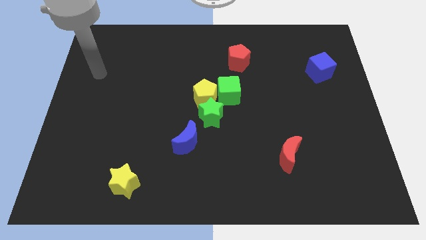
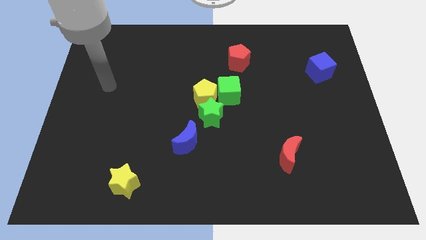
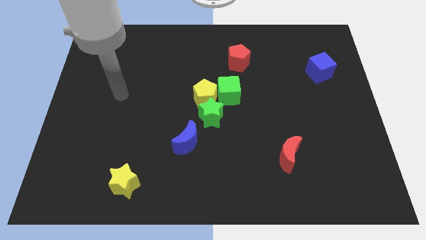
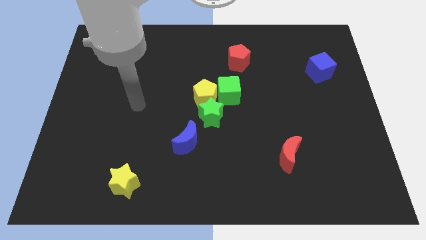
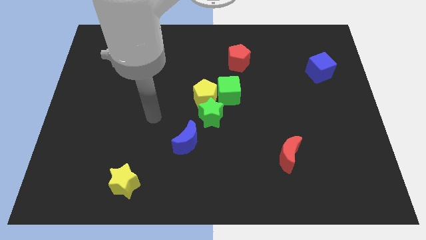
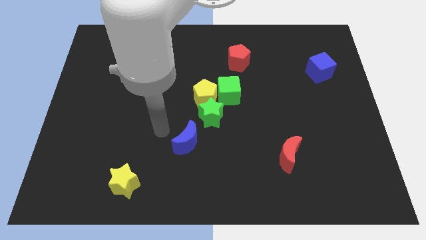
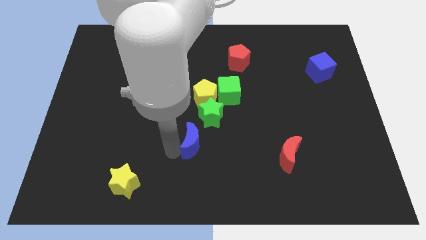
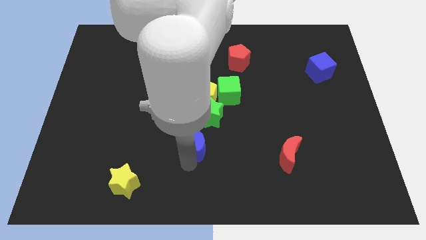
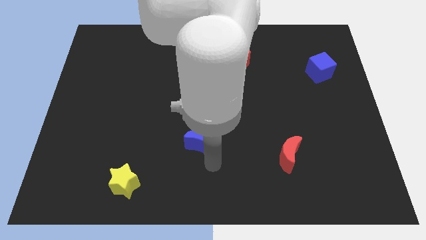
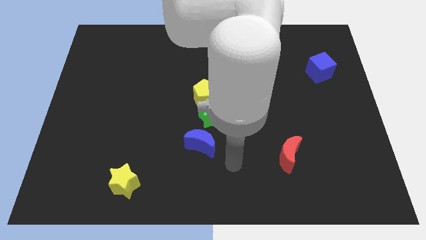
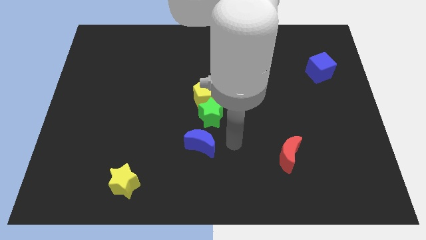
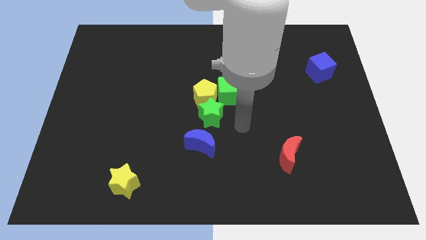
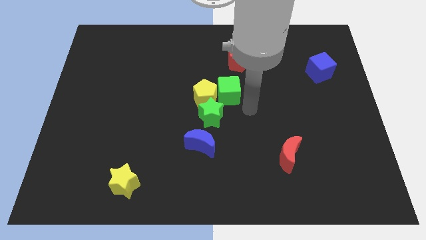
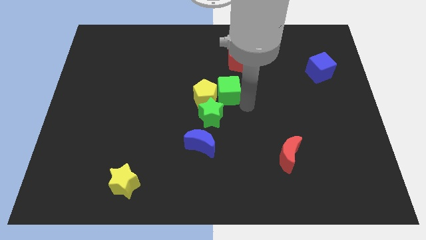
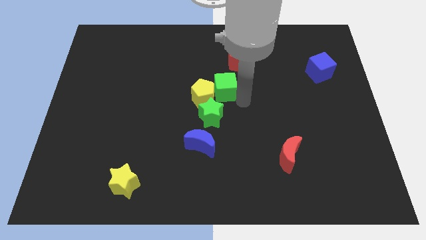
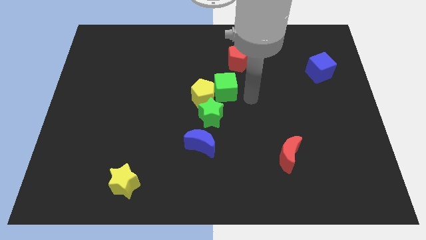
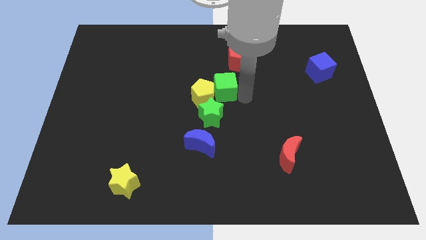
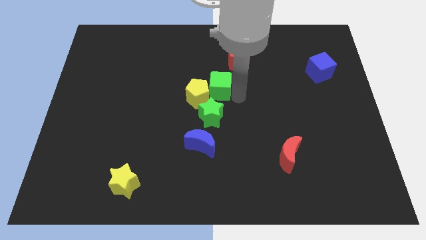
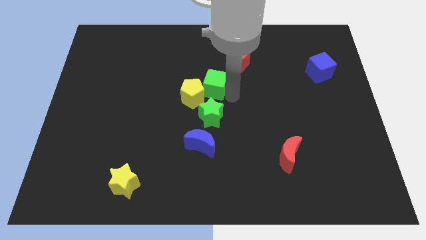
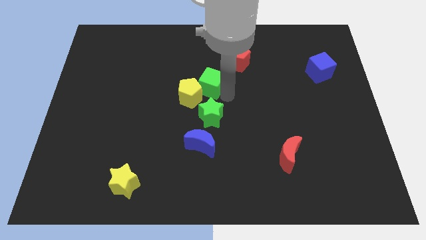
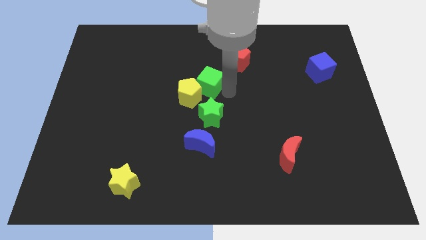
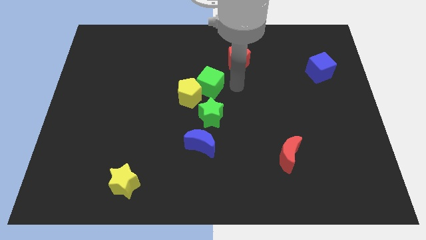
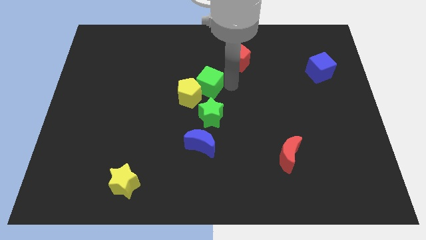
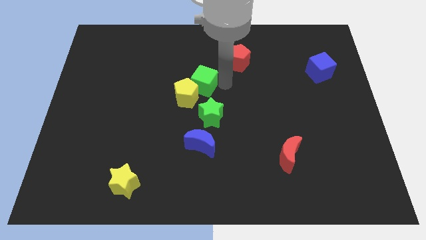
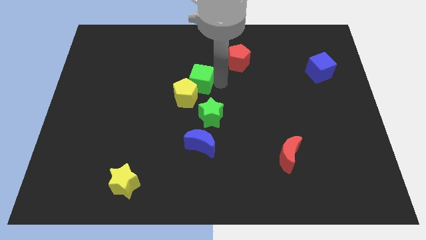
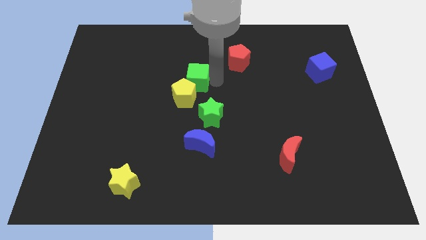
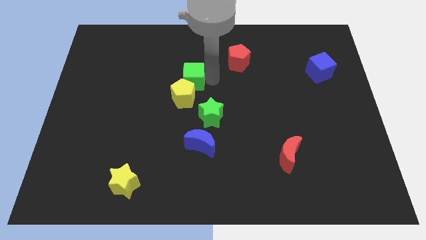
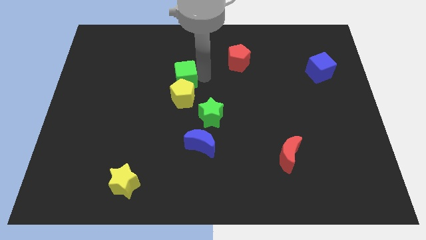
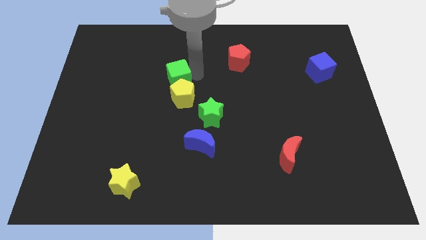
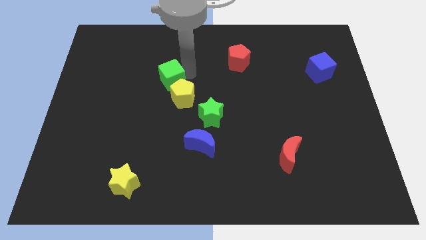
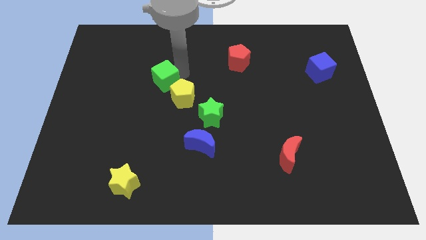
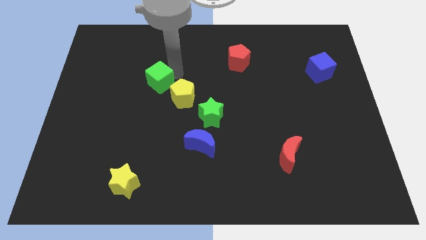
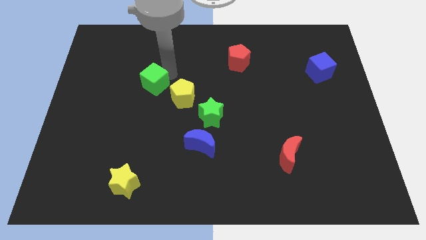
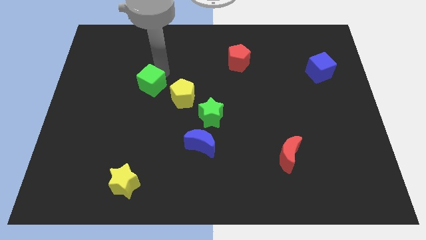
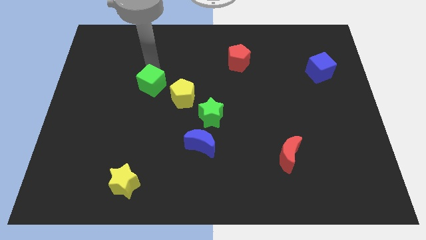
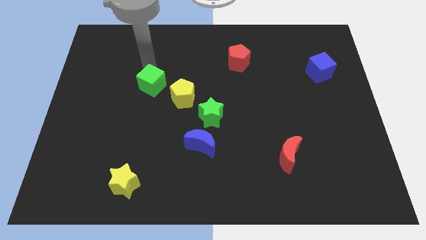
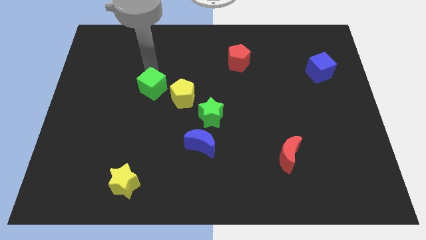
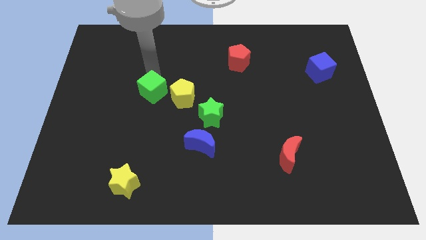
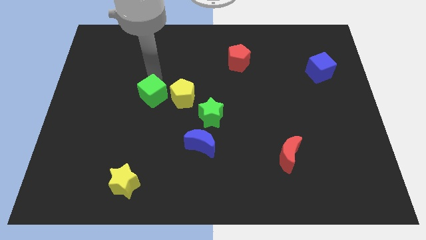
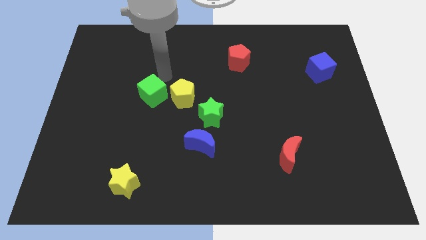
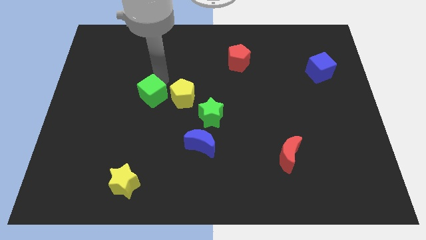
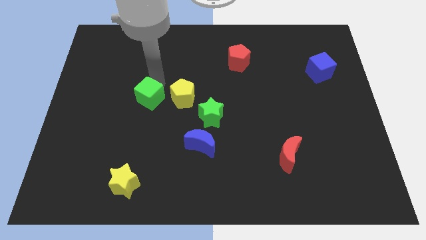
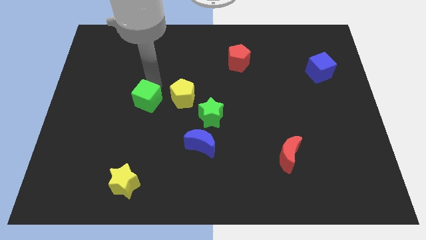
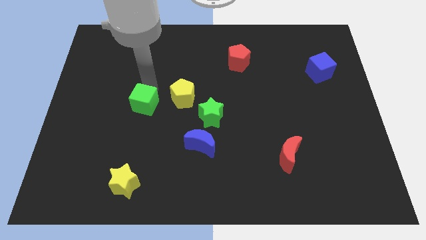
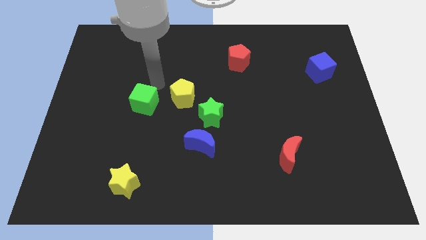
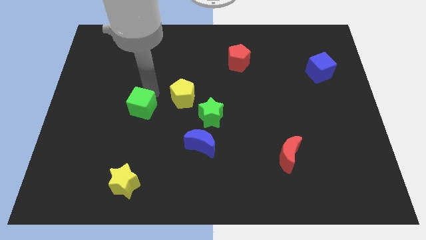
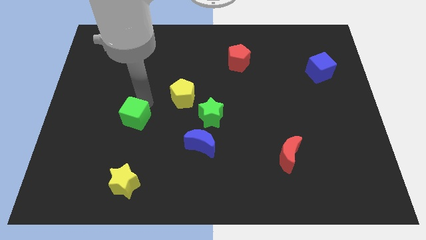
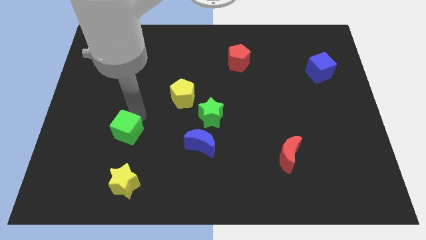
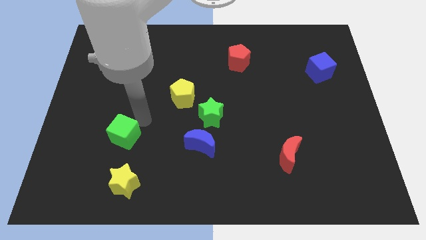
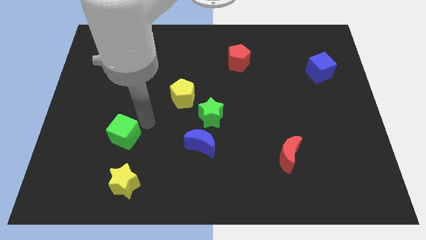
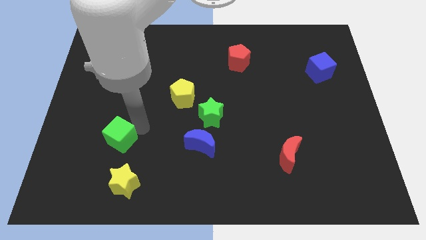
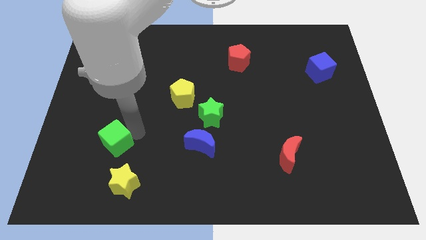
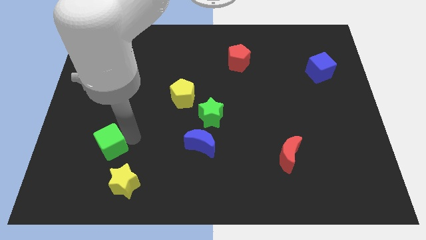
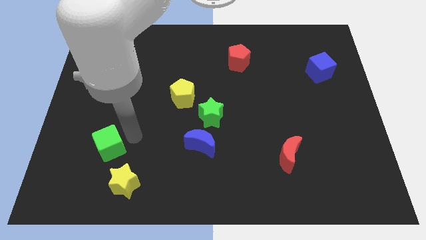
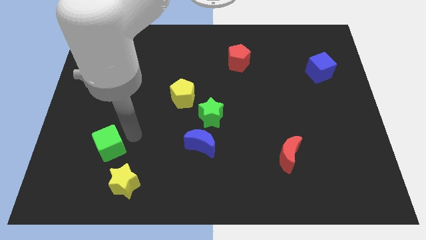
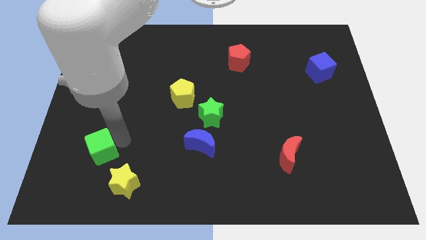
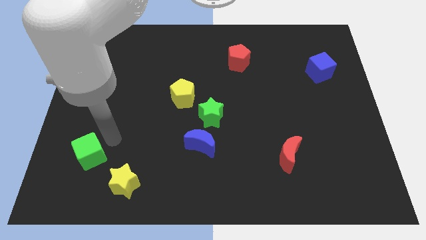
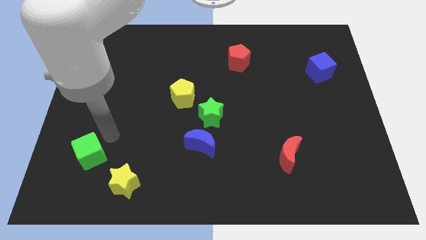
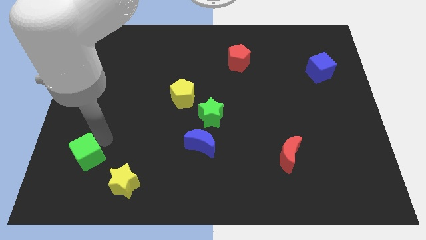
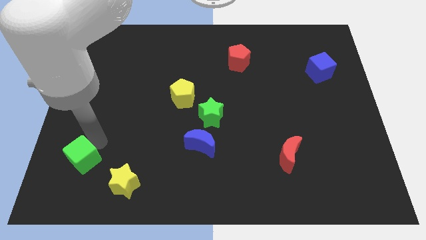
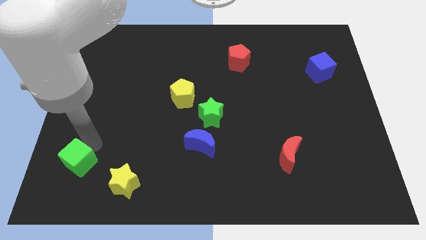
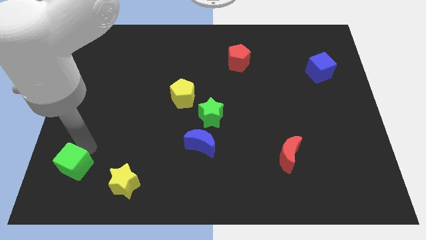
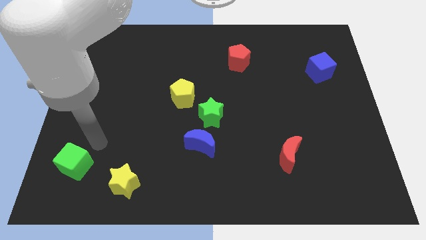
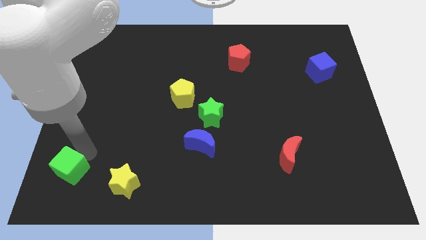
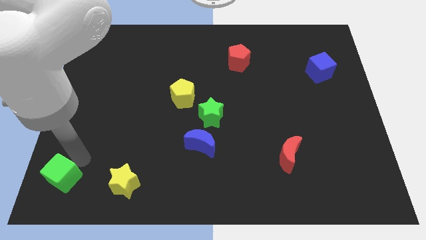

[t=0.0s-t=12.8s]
put the green cube to the lower left corner

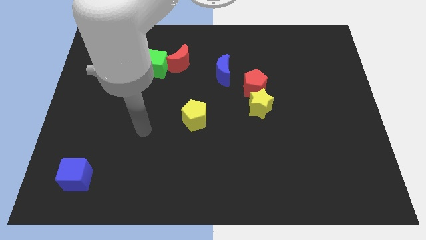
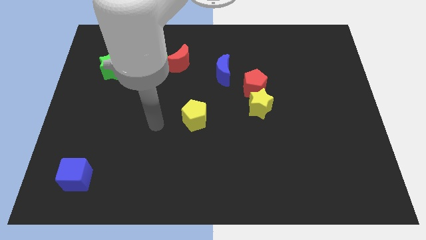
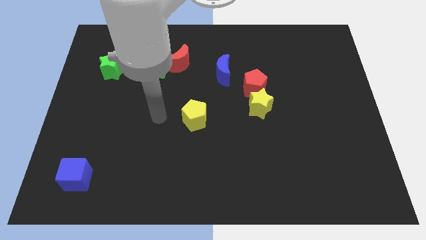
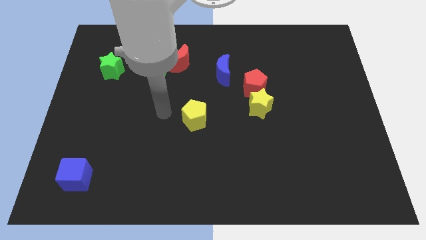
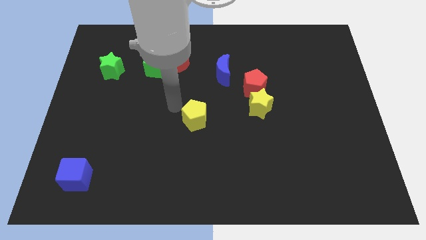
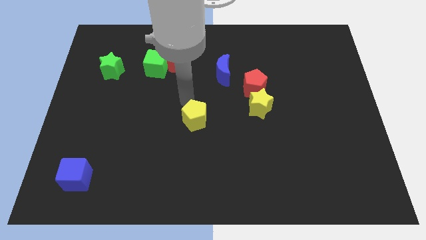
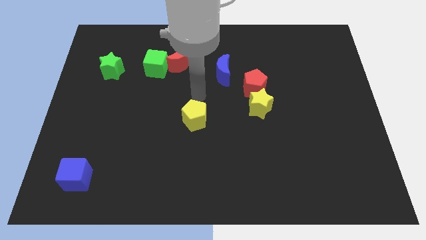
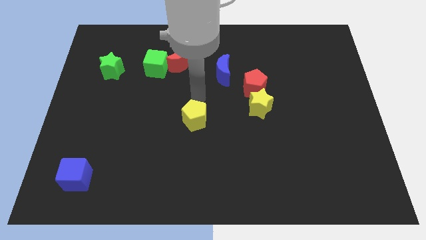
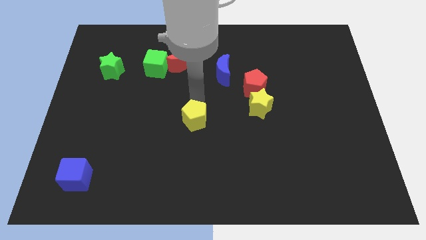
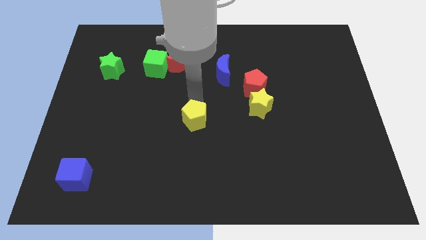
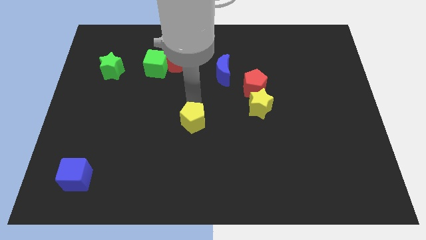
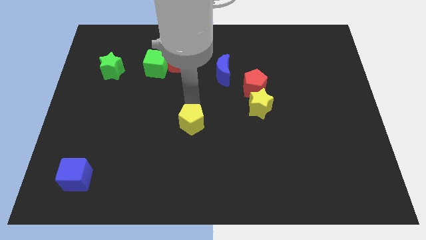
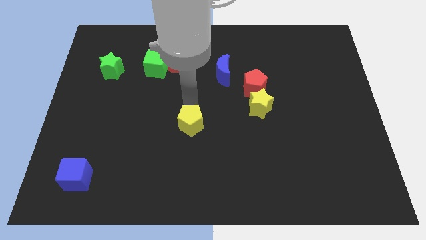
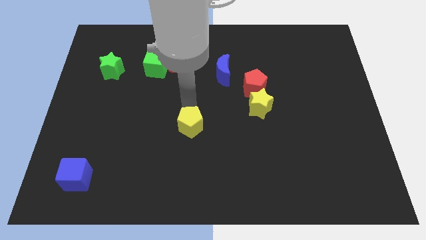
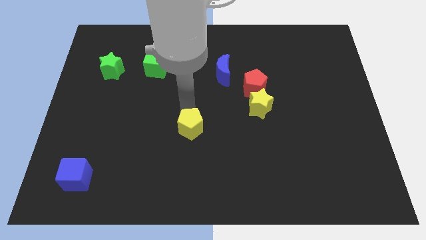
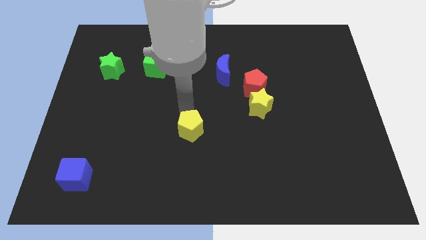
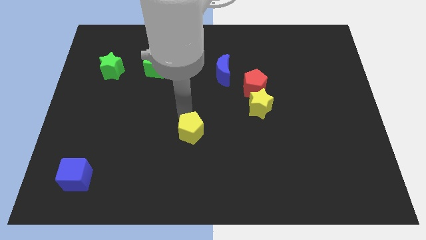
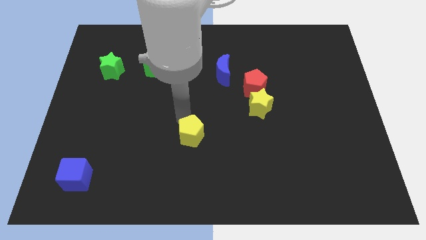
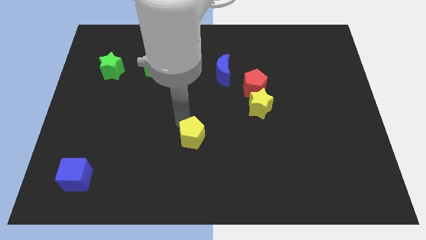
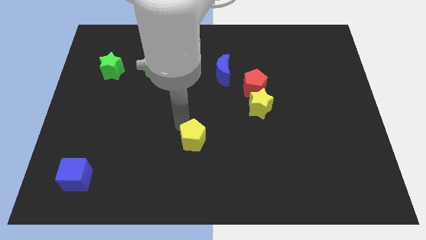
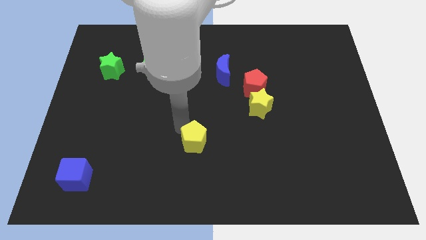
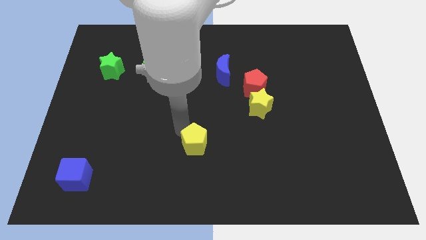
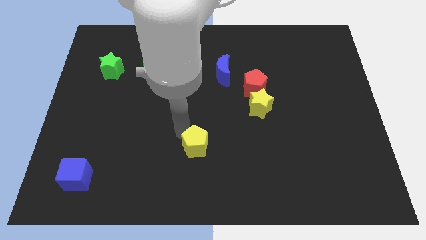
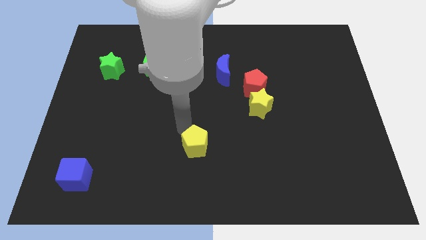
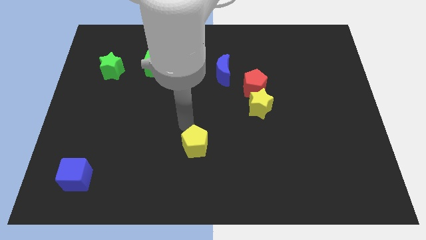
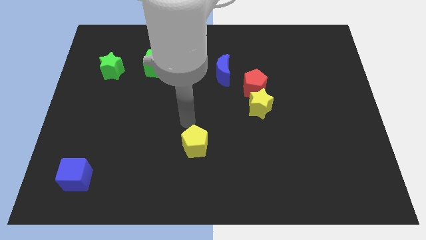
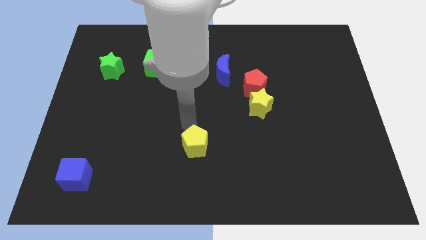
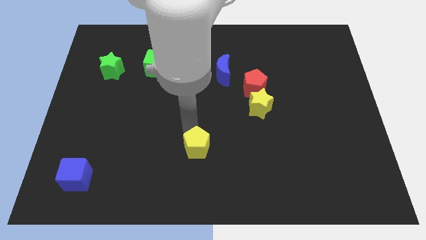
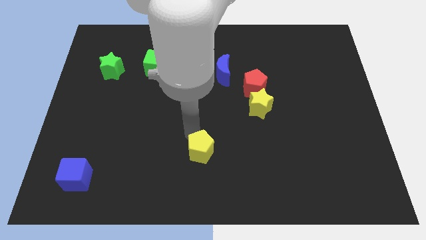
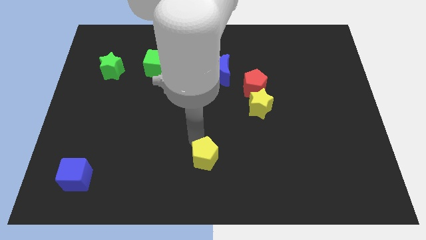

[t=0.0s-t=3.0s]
move the yellow pentagon to the bottom side
